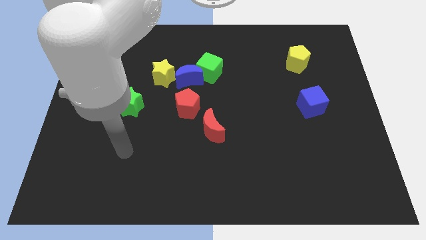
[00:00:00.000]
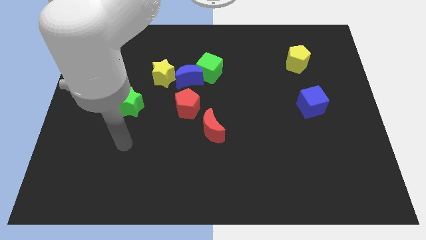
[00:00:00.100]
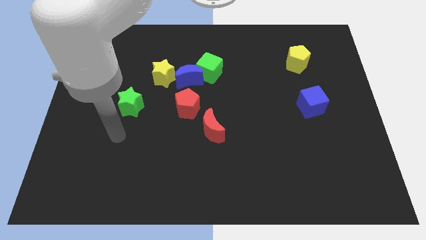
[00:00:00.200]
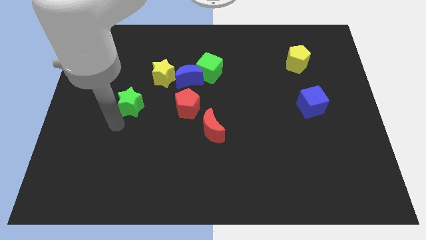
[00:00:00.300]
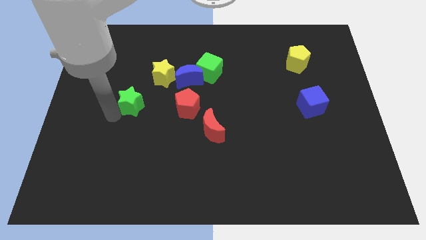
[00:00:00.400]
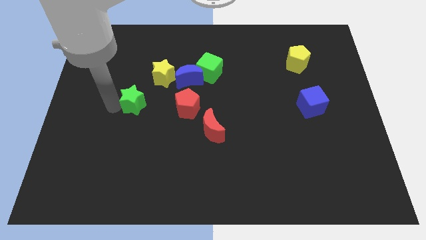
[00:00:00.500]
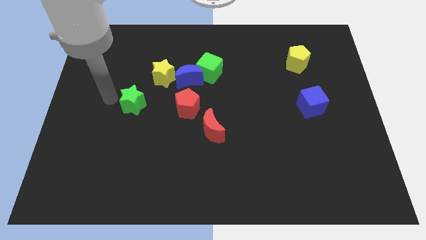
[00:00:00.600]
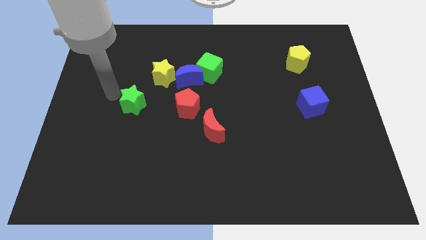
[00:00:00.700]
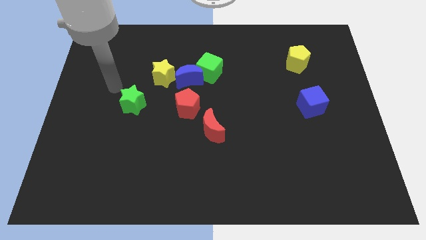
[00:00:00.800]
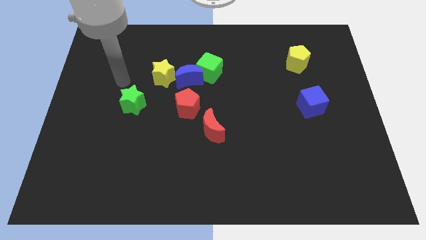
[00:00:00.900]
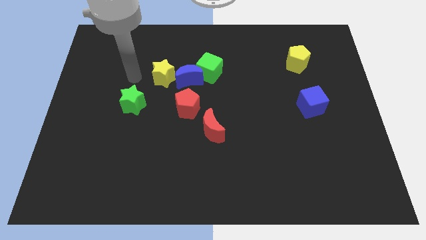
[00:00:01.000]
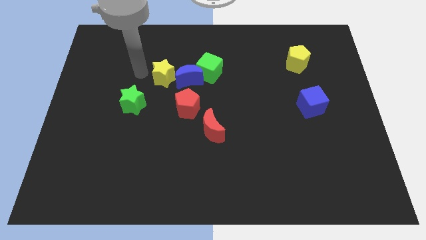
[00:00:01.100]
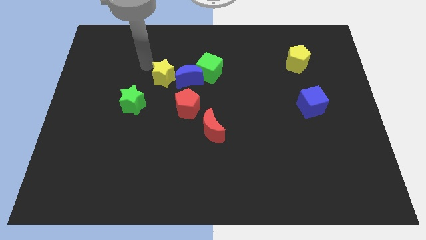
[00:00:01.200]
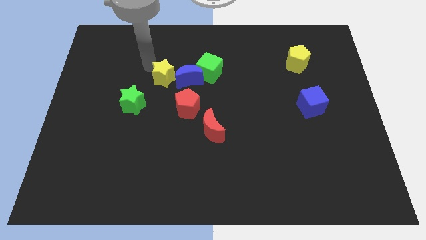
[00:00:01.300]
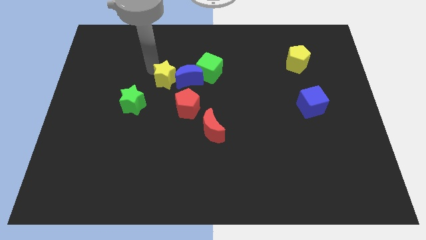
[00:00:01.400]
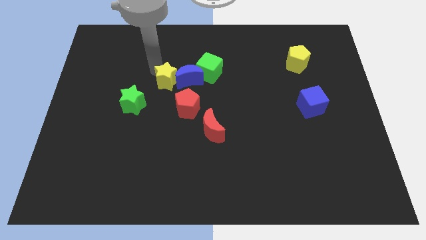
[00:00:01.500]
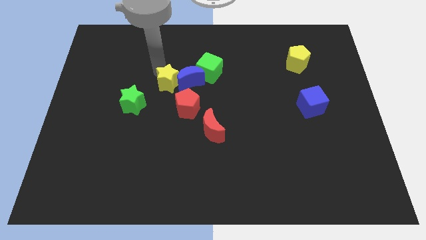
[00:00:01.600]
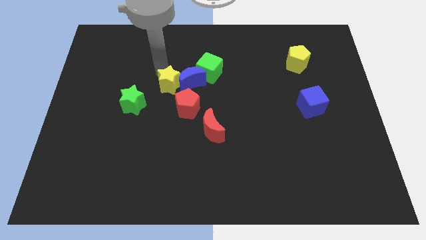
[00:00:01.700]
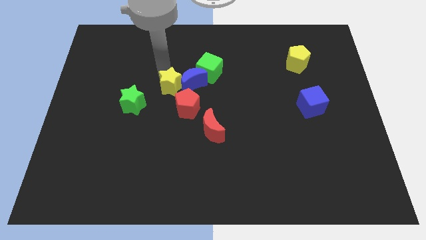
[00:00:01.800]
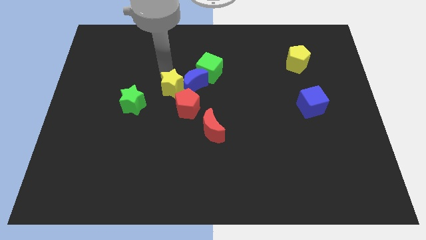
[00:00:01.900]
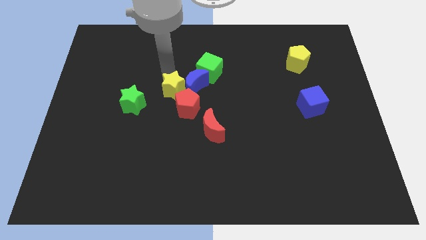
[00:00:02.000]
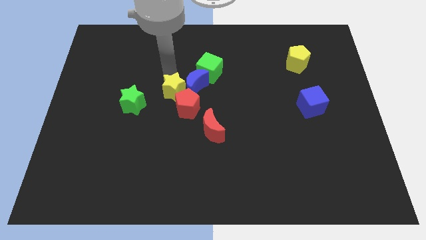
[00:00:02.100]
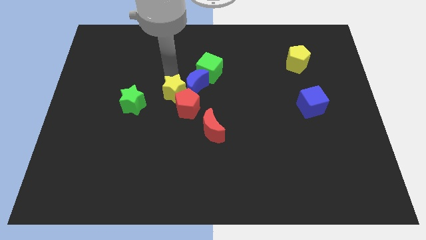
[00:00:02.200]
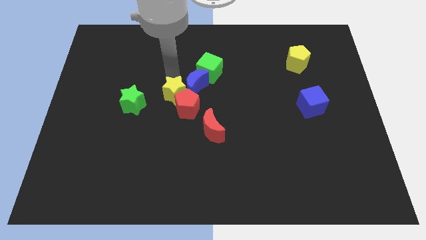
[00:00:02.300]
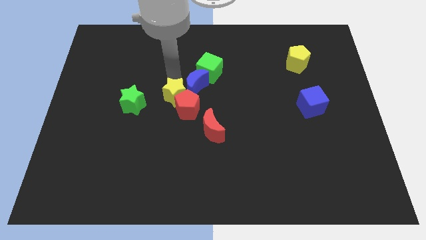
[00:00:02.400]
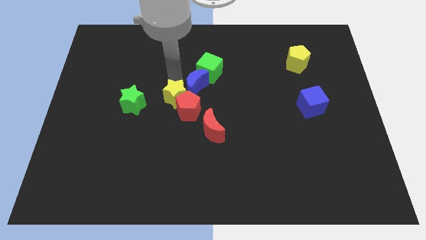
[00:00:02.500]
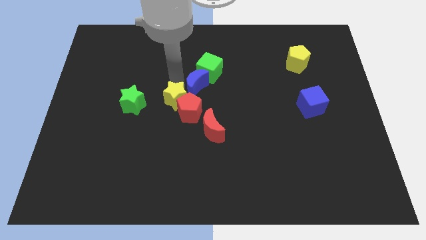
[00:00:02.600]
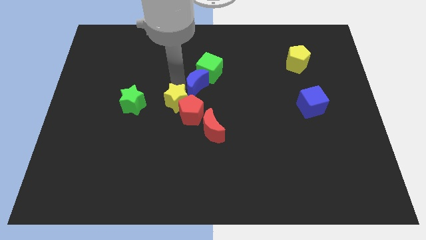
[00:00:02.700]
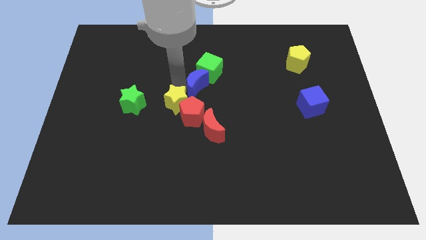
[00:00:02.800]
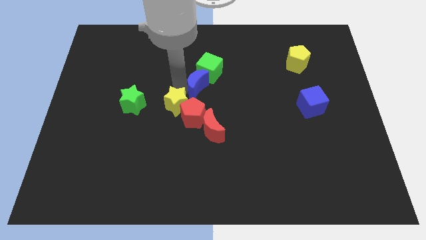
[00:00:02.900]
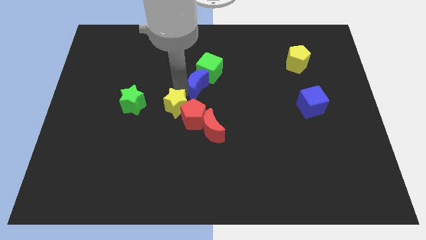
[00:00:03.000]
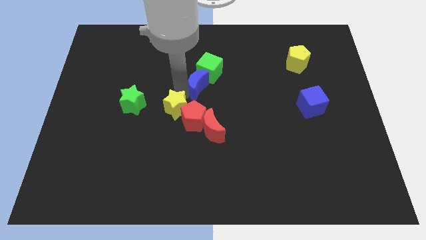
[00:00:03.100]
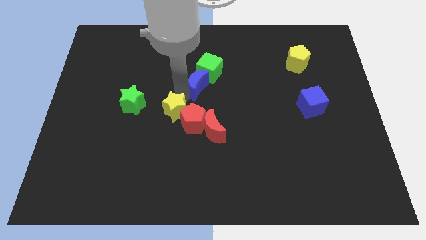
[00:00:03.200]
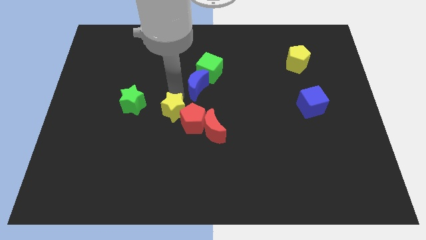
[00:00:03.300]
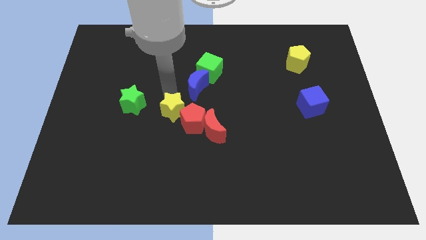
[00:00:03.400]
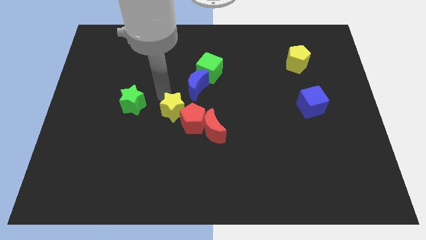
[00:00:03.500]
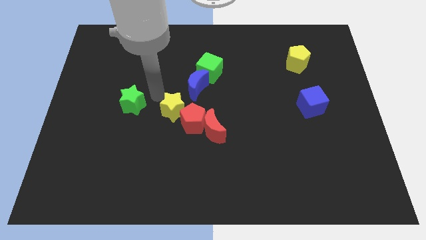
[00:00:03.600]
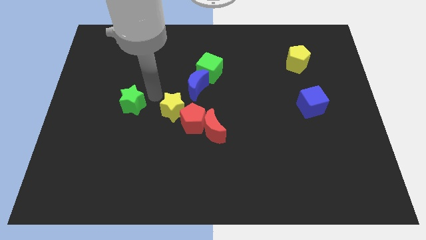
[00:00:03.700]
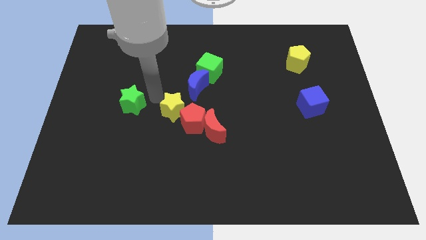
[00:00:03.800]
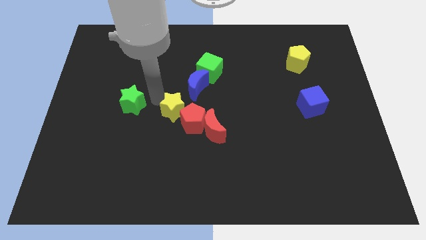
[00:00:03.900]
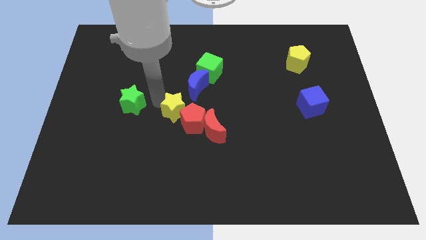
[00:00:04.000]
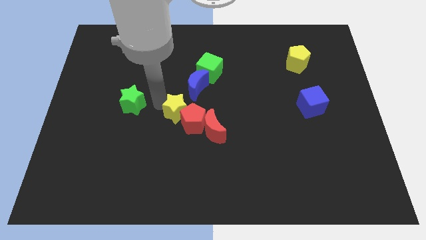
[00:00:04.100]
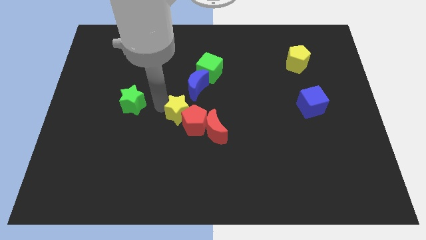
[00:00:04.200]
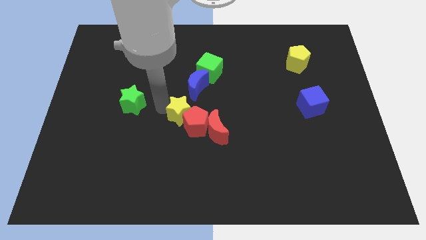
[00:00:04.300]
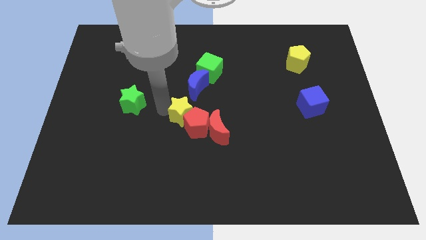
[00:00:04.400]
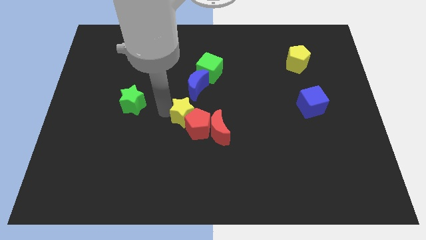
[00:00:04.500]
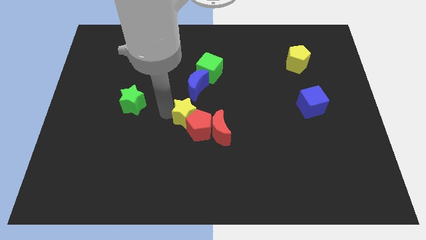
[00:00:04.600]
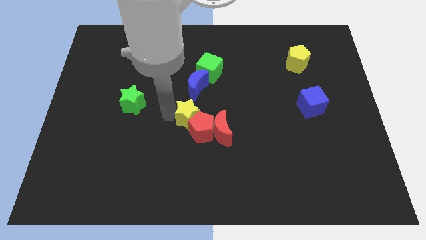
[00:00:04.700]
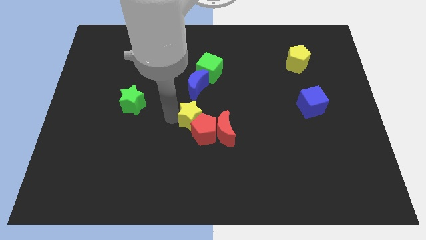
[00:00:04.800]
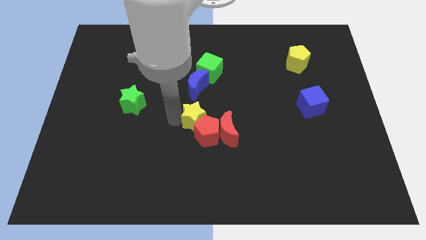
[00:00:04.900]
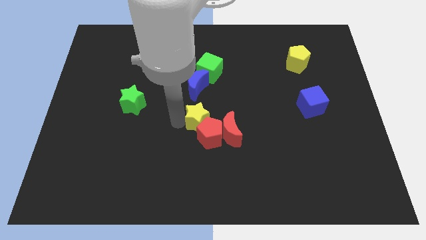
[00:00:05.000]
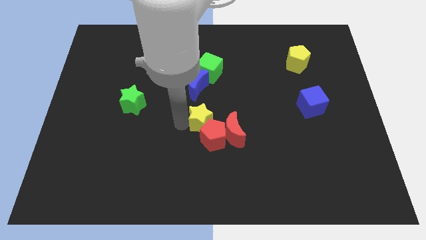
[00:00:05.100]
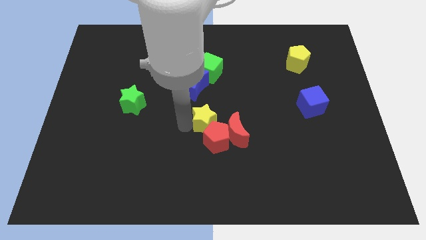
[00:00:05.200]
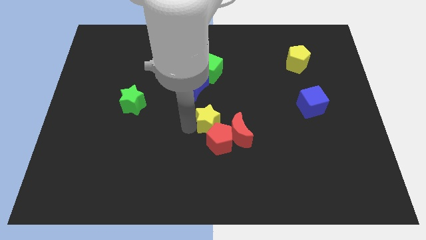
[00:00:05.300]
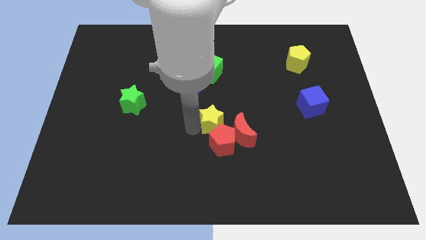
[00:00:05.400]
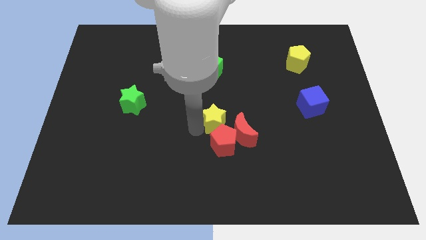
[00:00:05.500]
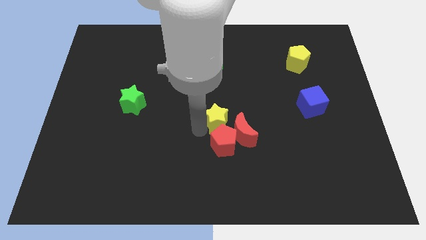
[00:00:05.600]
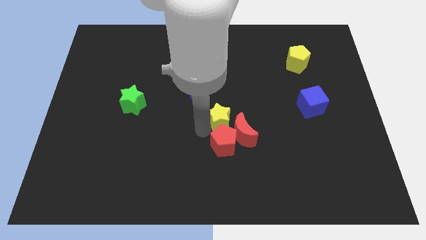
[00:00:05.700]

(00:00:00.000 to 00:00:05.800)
move the yellow star towards the red moon

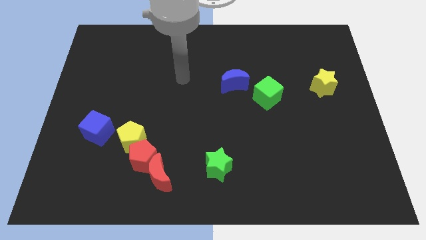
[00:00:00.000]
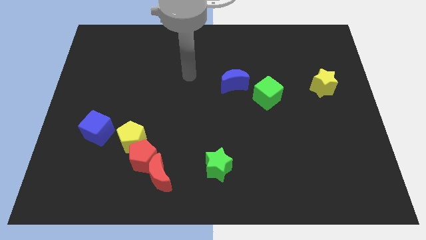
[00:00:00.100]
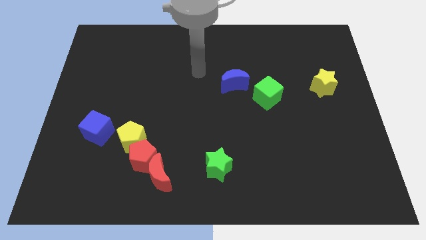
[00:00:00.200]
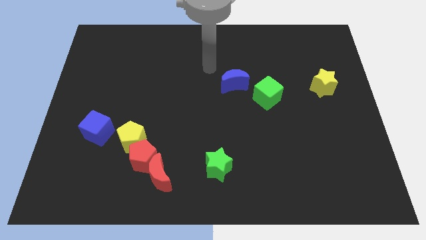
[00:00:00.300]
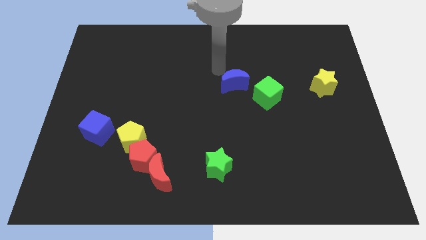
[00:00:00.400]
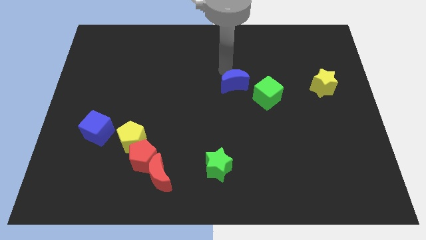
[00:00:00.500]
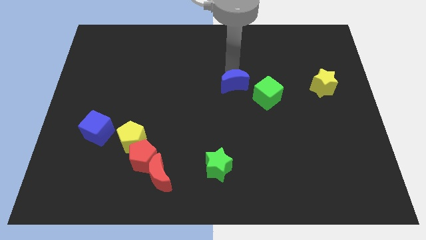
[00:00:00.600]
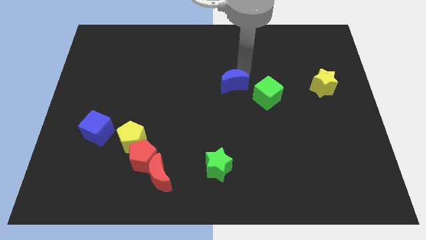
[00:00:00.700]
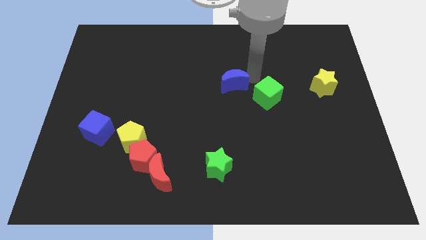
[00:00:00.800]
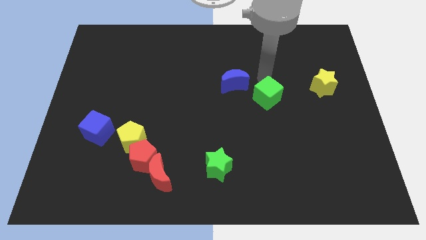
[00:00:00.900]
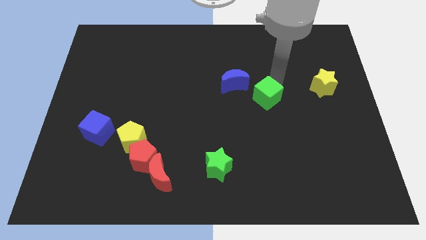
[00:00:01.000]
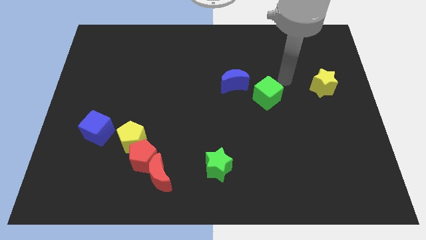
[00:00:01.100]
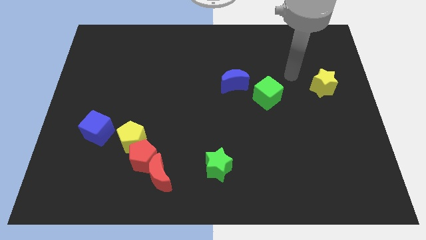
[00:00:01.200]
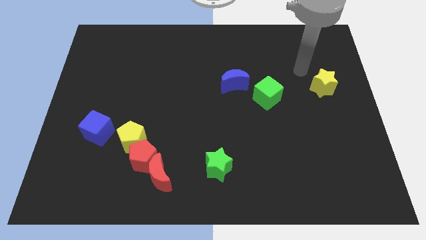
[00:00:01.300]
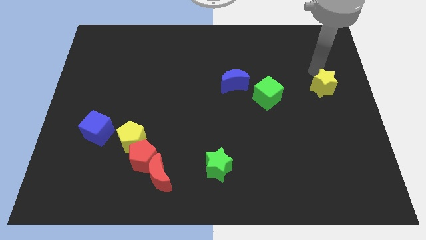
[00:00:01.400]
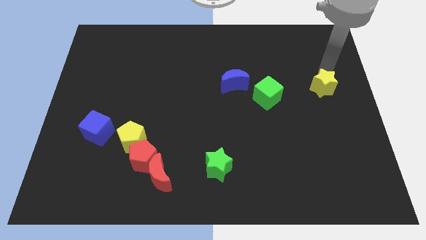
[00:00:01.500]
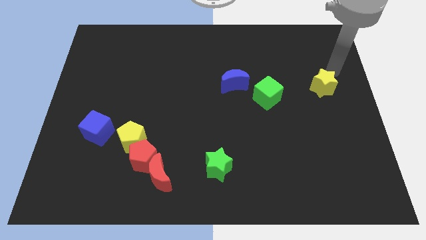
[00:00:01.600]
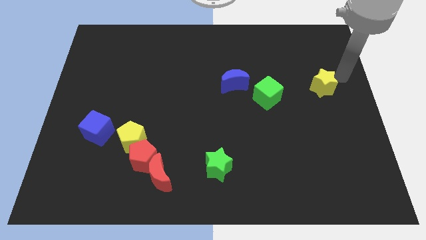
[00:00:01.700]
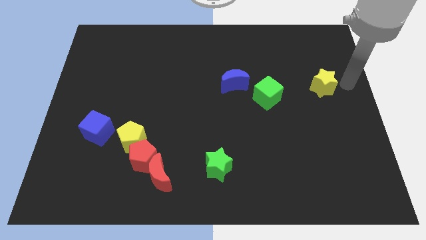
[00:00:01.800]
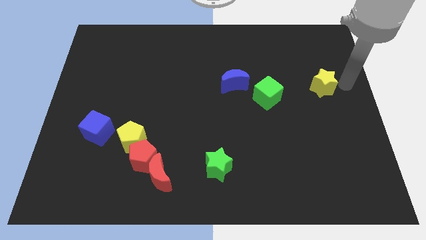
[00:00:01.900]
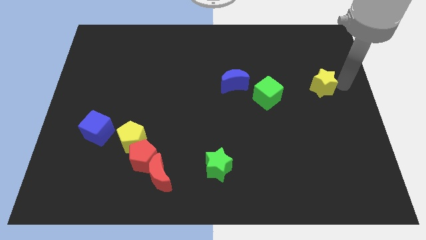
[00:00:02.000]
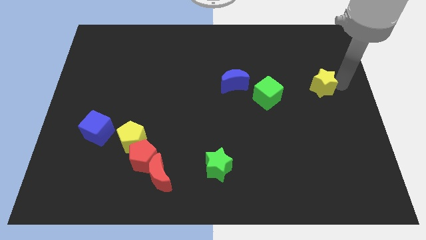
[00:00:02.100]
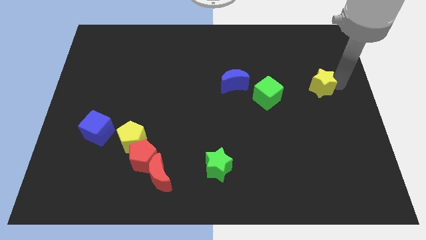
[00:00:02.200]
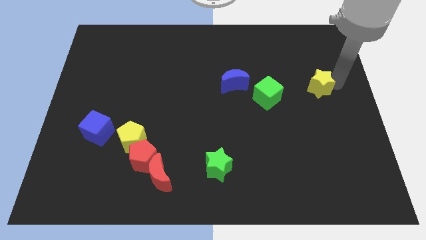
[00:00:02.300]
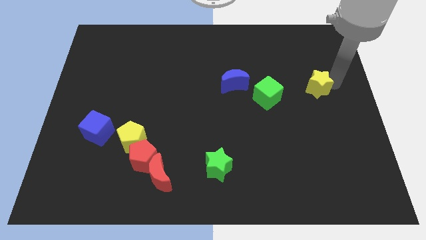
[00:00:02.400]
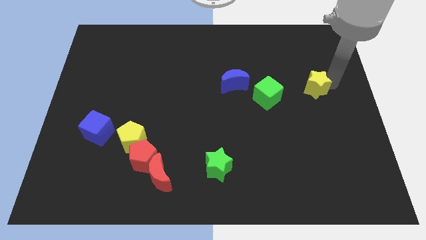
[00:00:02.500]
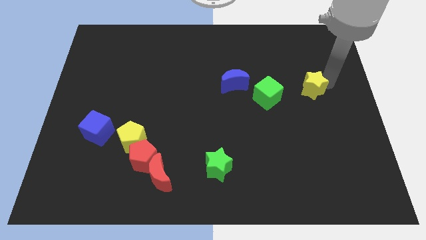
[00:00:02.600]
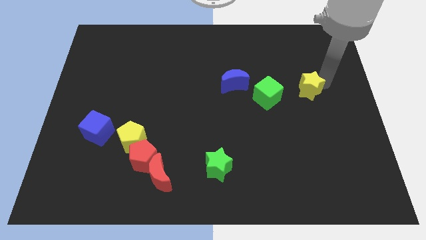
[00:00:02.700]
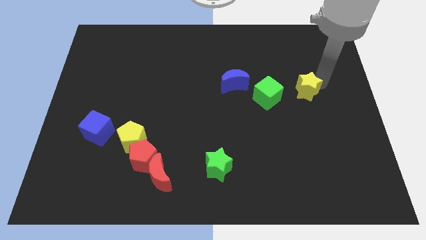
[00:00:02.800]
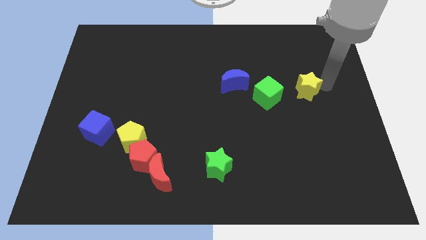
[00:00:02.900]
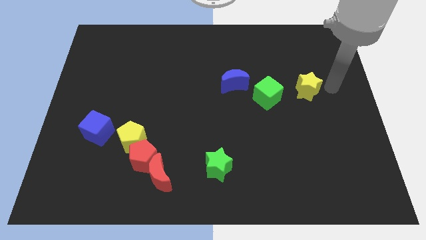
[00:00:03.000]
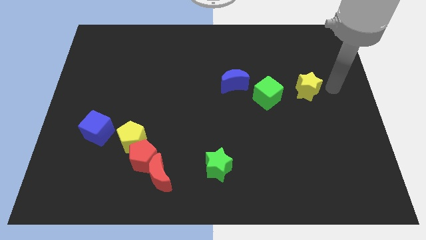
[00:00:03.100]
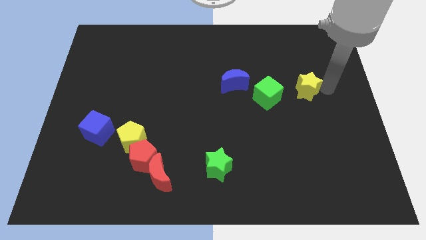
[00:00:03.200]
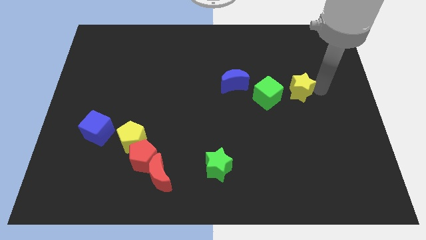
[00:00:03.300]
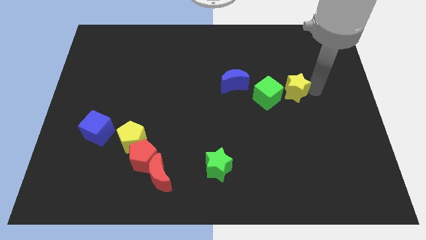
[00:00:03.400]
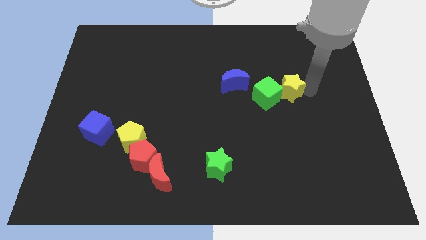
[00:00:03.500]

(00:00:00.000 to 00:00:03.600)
slide the yellow star to the green cube
